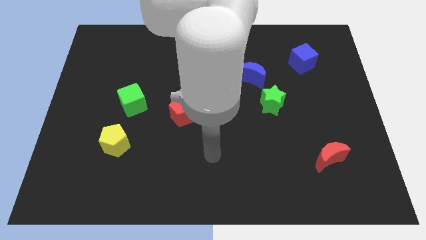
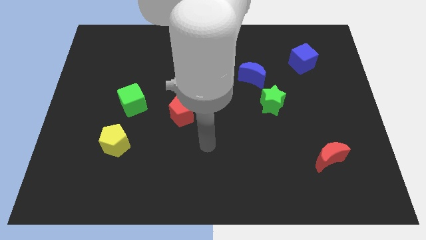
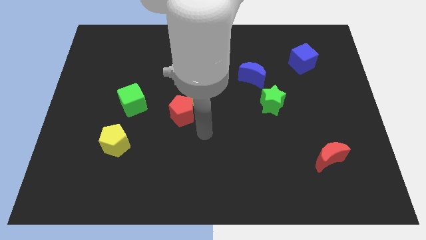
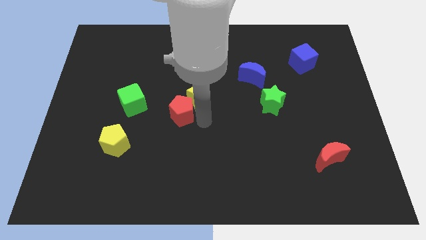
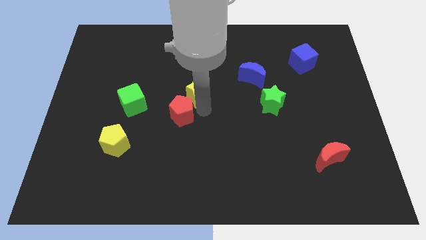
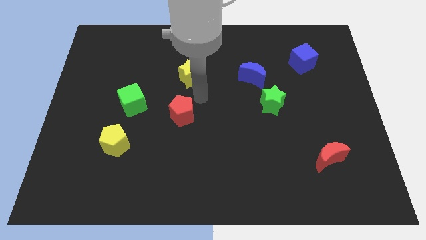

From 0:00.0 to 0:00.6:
move the red pentagon away from the yellow star

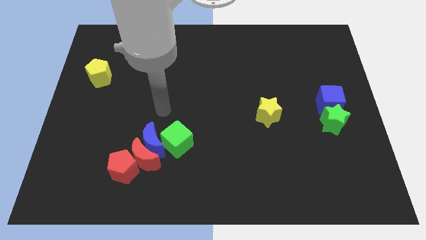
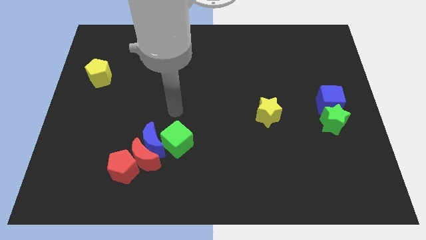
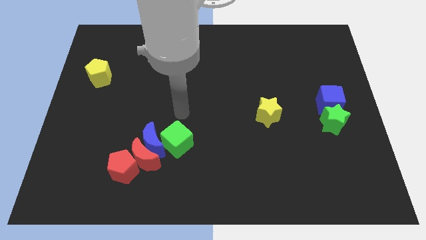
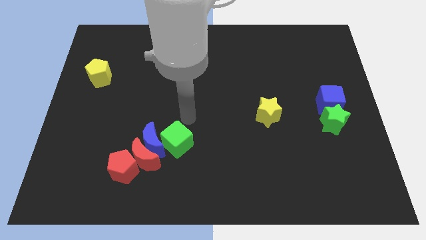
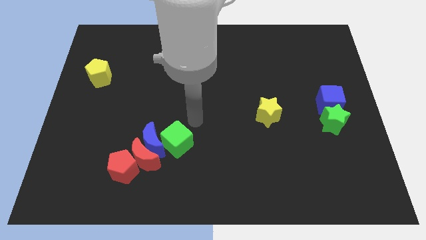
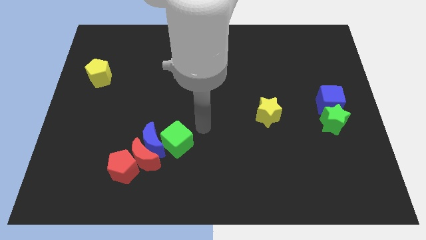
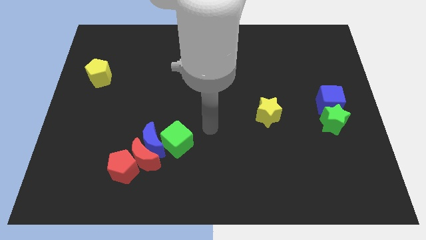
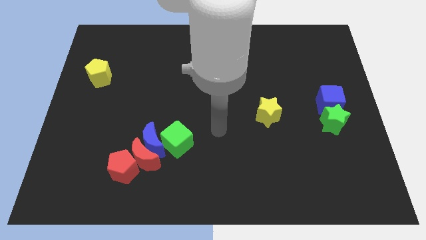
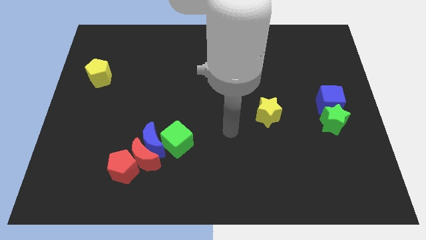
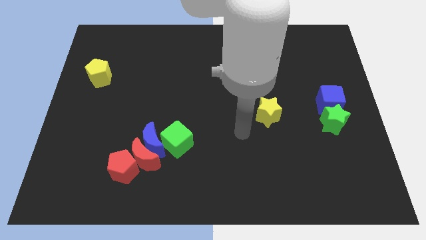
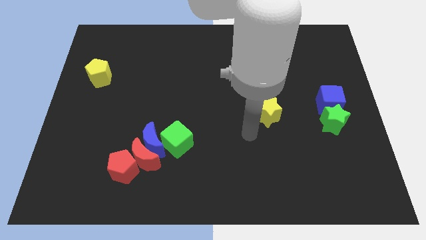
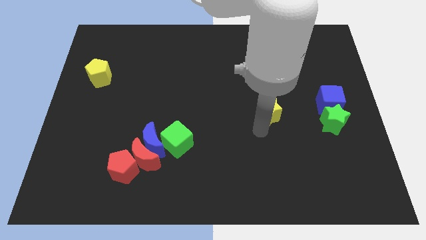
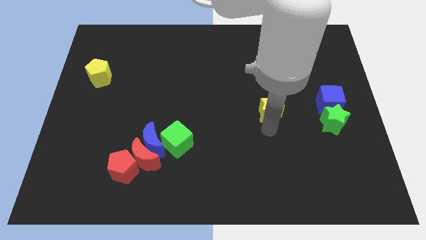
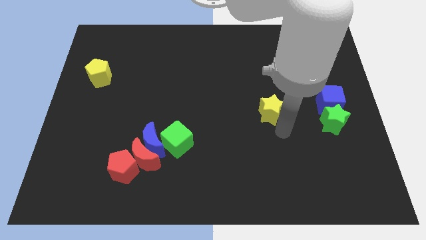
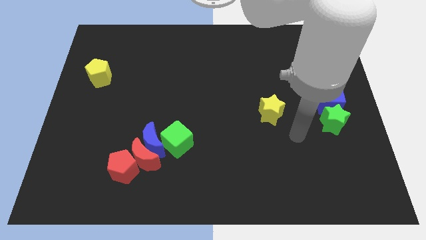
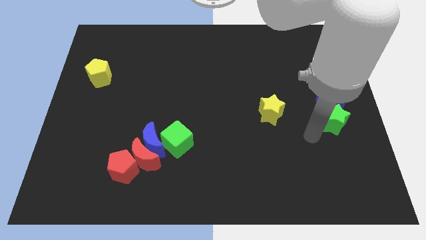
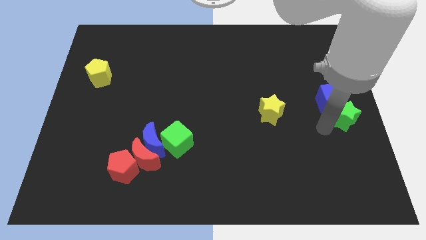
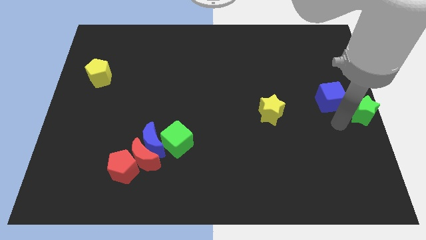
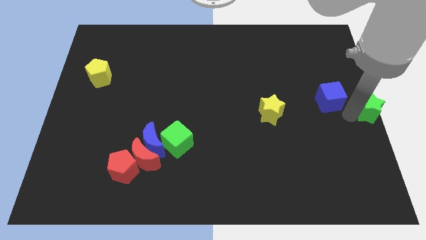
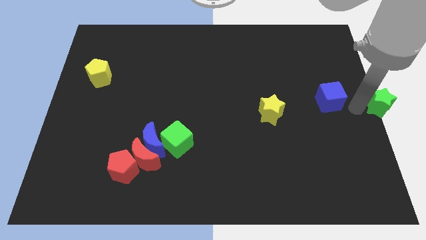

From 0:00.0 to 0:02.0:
pull the blue cube apart from the green star

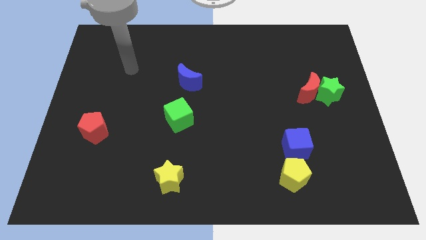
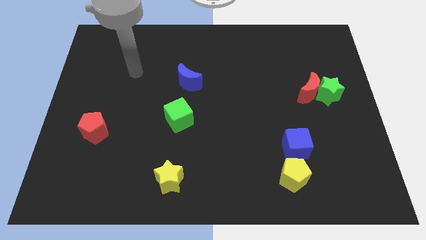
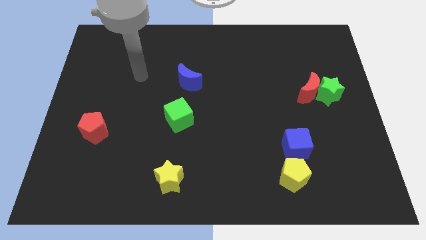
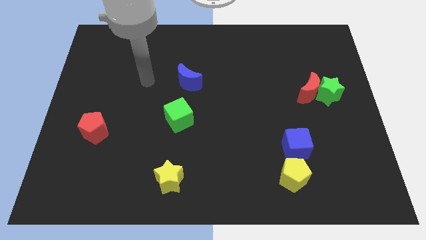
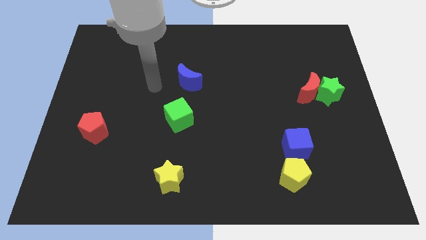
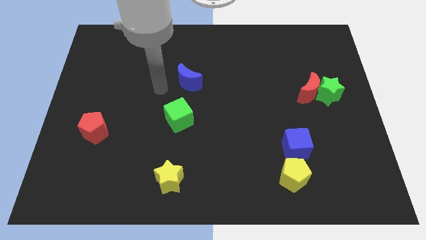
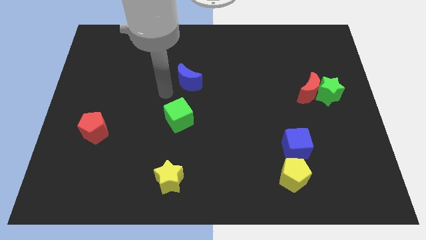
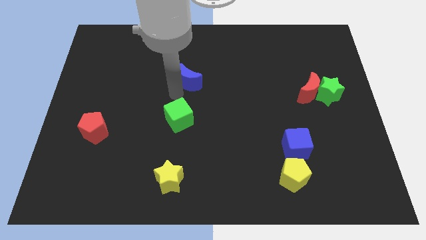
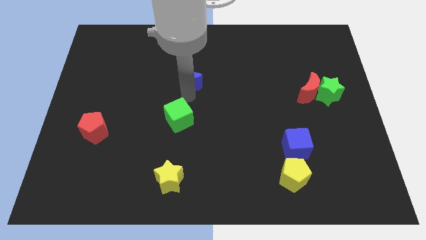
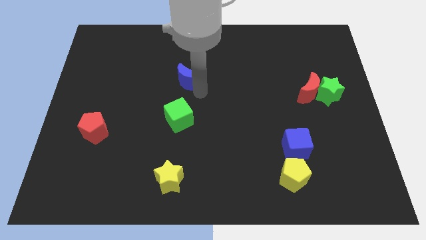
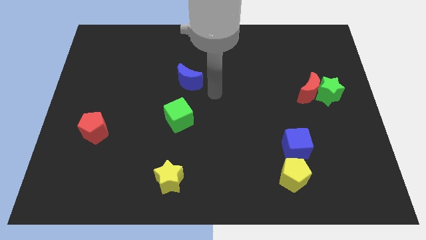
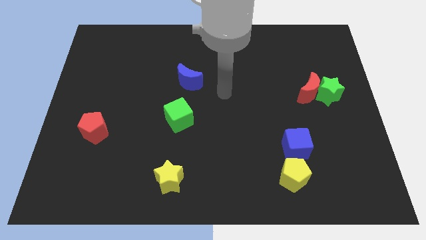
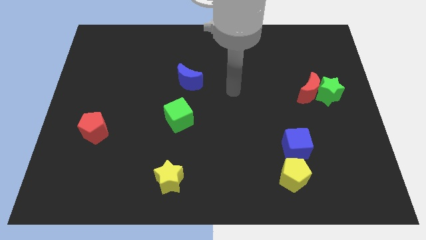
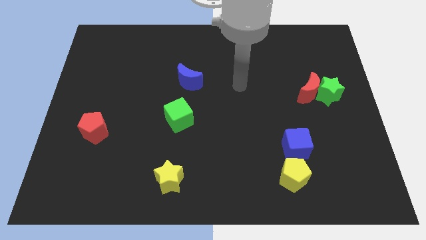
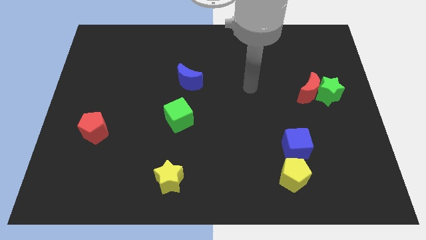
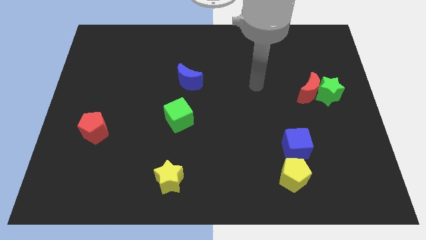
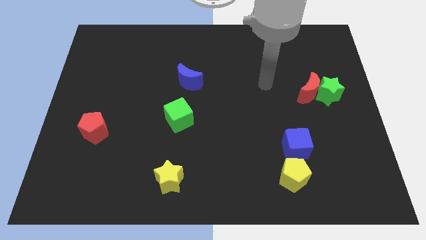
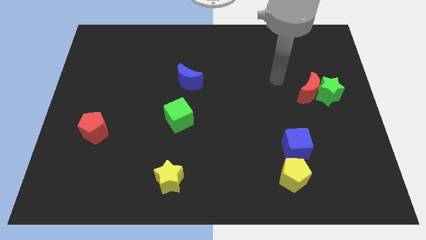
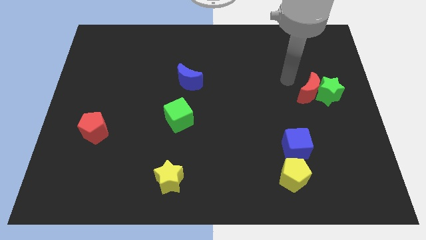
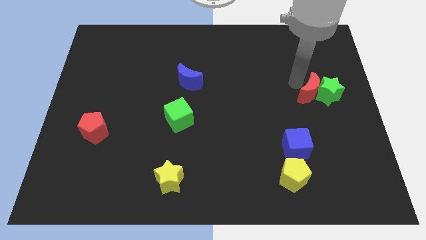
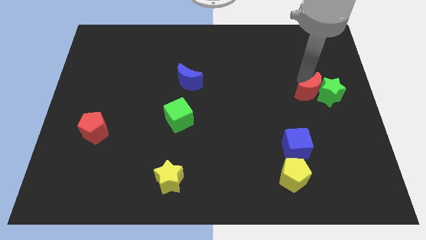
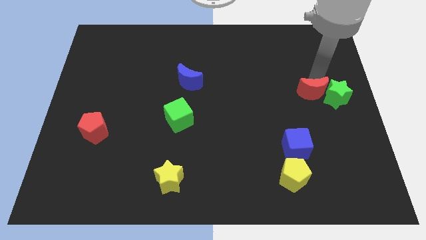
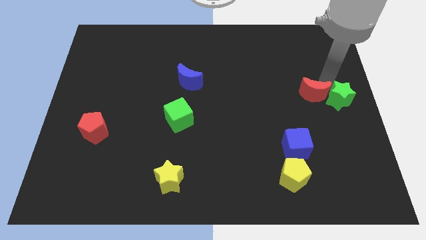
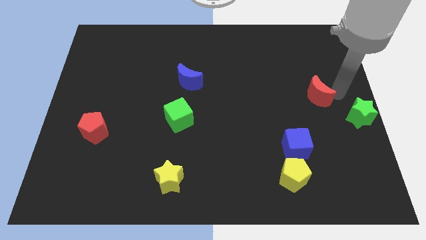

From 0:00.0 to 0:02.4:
separate the red moon from the green star

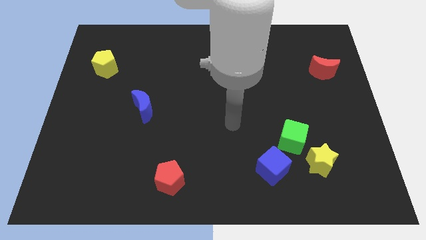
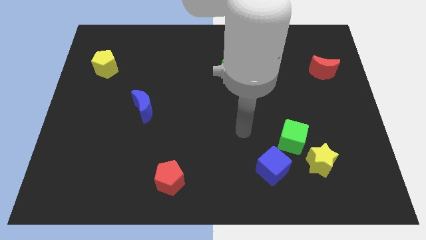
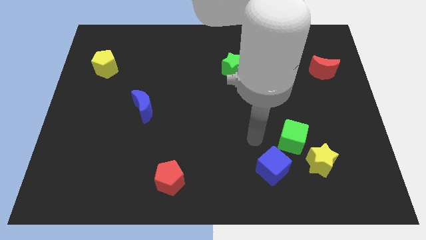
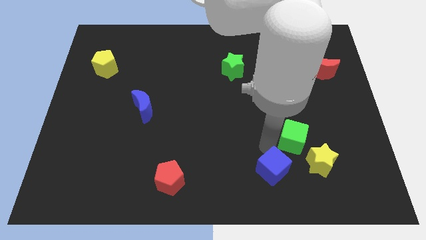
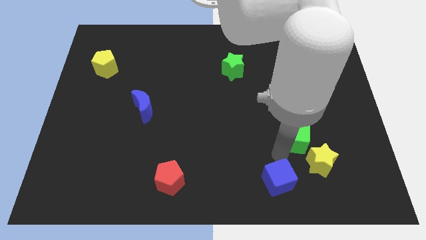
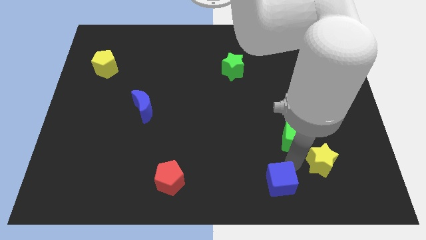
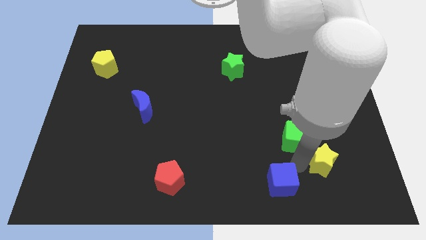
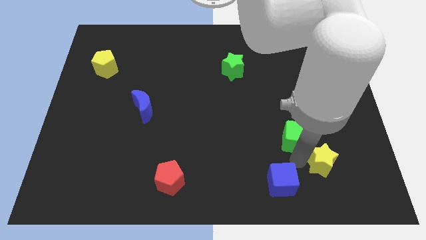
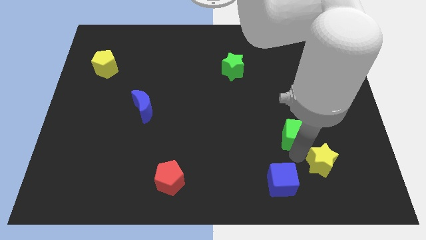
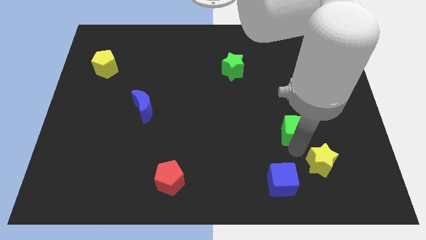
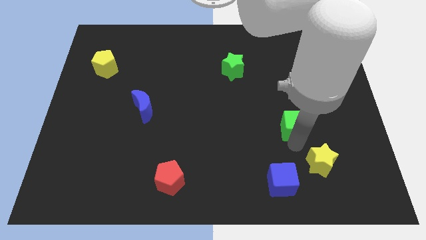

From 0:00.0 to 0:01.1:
move the green cube away from the yellow star and blue cube

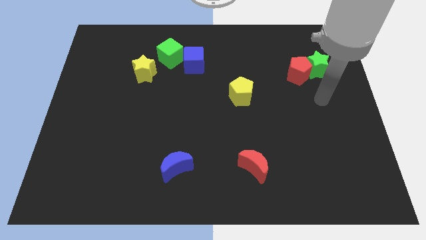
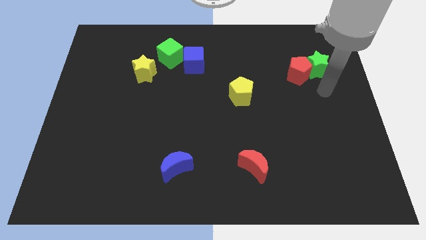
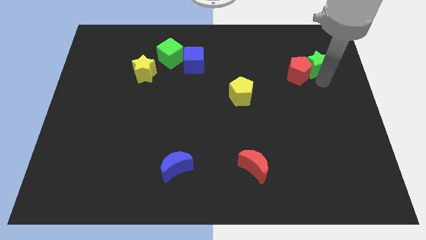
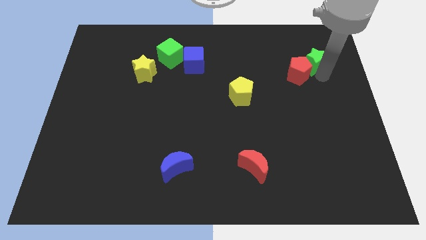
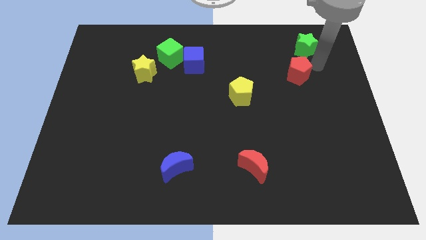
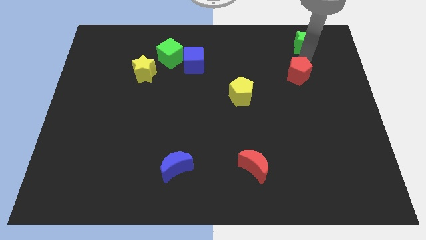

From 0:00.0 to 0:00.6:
separate the red pentagon from the green star

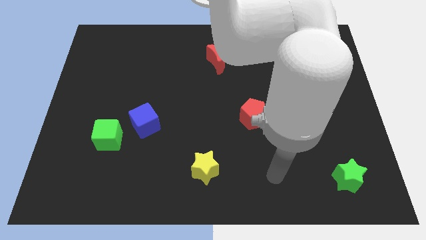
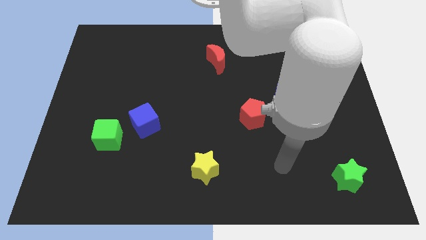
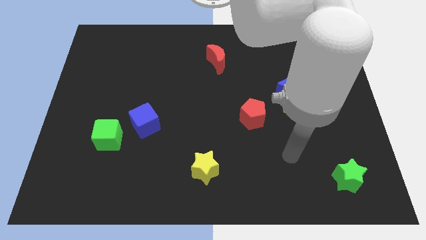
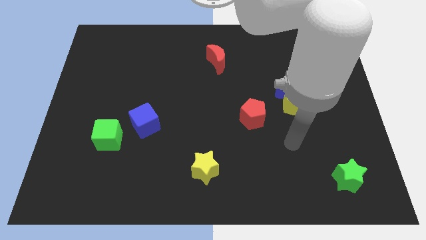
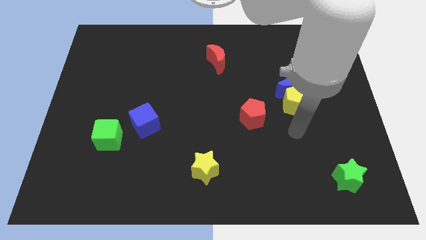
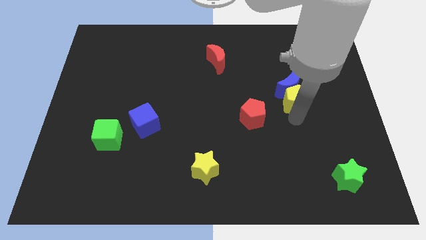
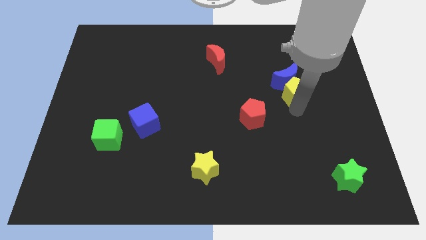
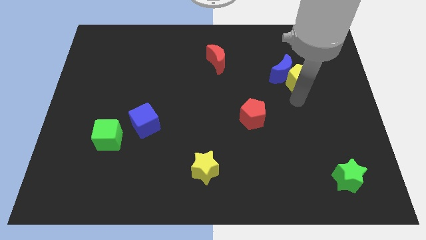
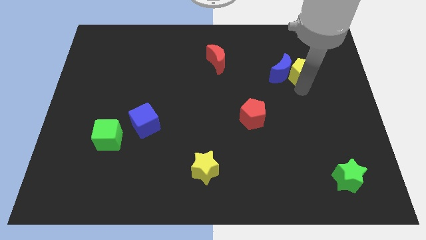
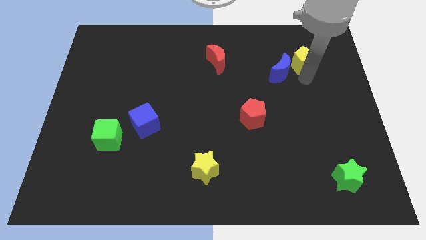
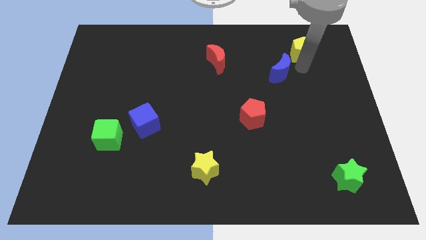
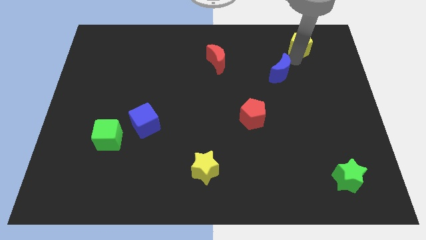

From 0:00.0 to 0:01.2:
separate the blue moon from the yellow pentagon

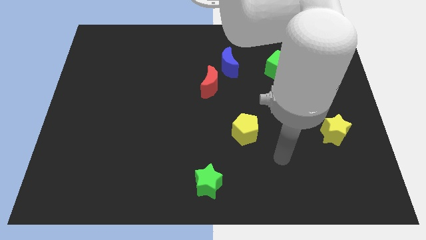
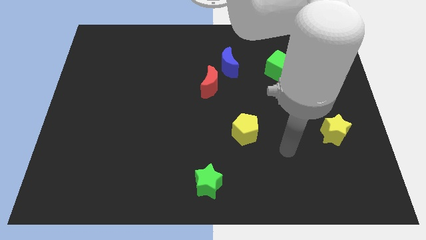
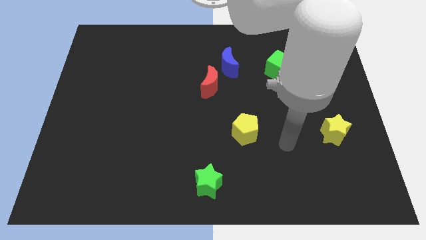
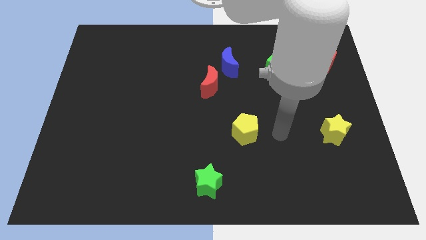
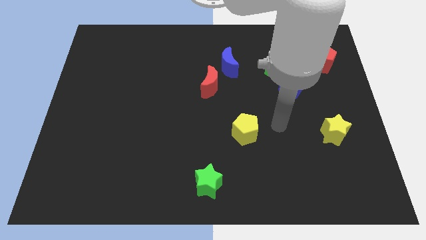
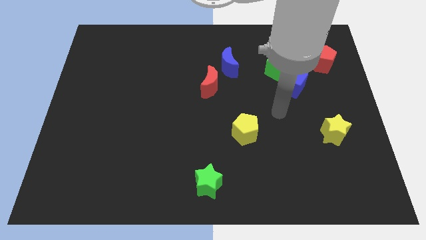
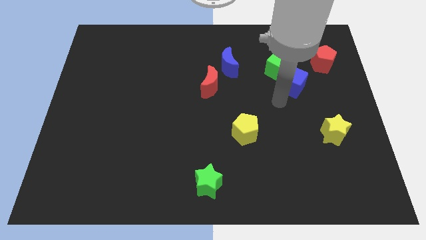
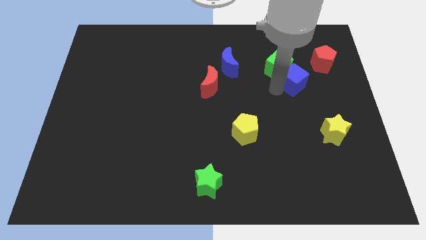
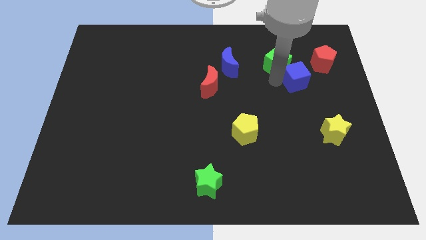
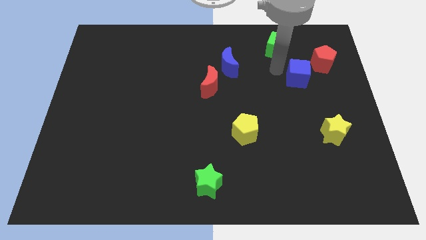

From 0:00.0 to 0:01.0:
pull the blue cube apart from the green cube

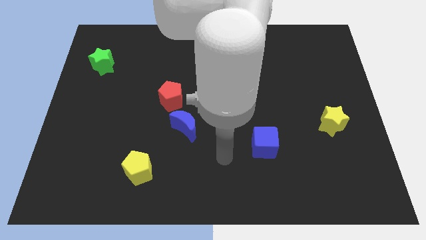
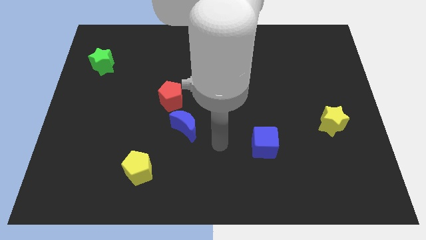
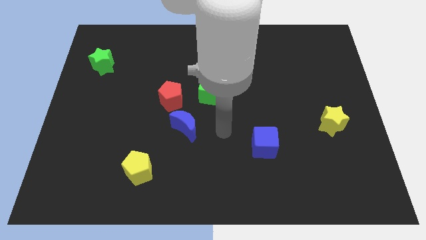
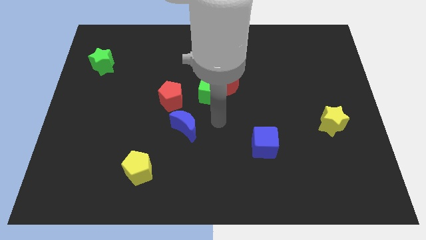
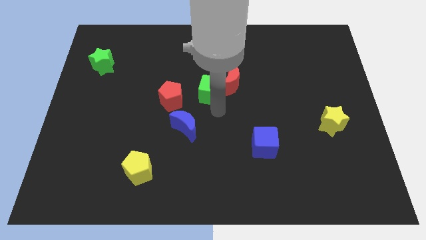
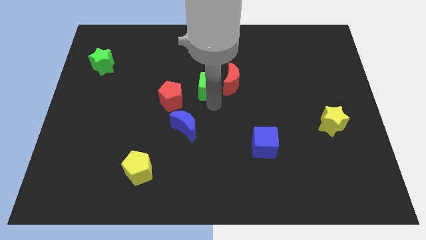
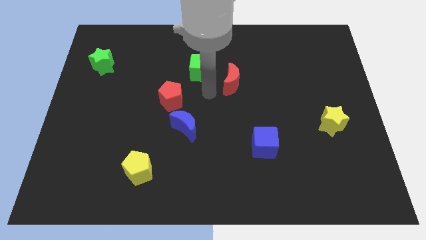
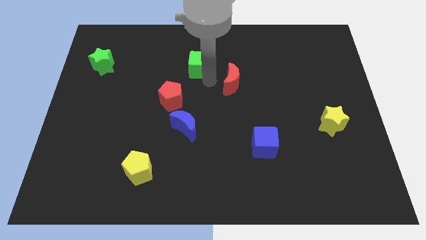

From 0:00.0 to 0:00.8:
separate the red moon from the green cube
